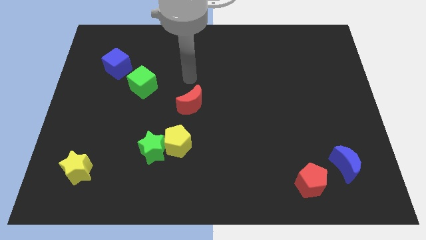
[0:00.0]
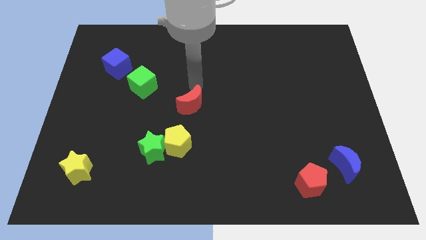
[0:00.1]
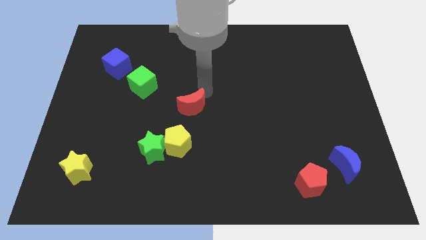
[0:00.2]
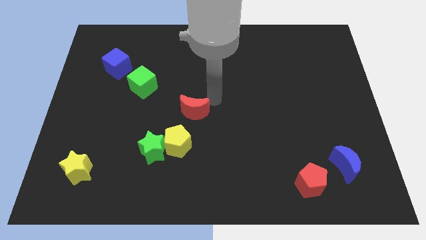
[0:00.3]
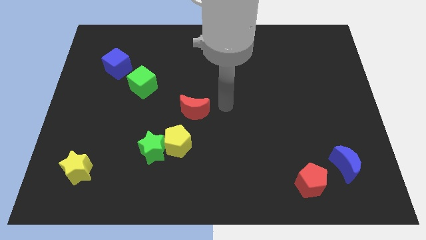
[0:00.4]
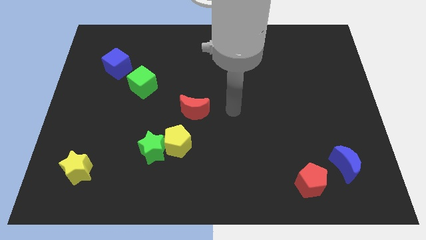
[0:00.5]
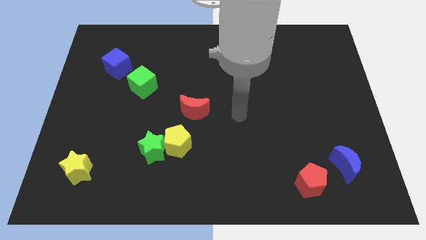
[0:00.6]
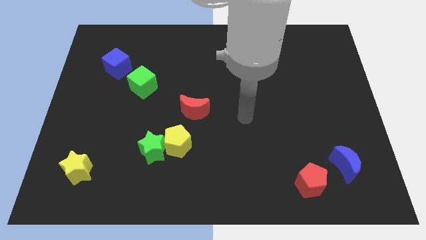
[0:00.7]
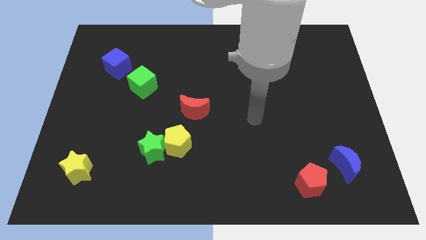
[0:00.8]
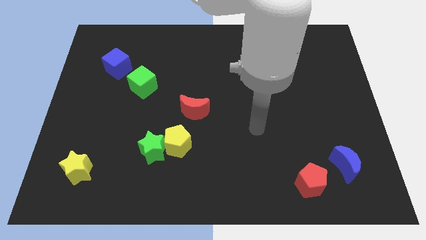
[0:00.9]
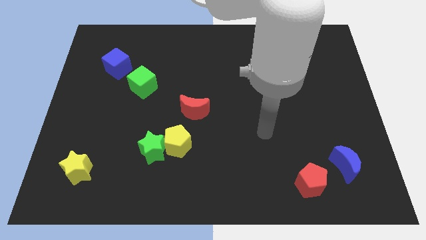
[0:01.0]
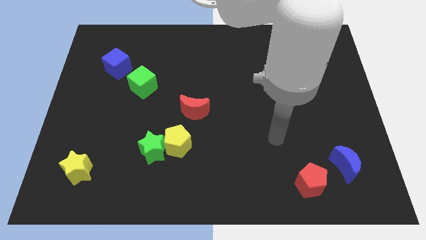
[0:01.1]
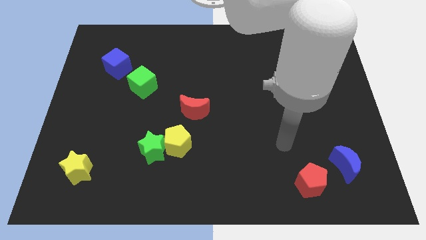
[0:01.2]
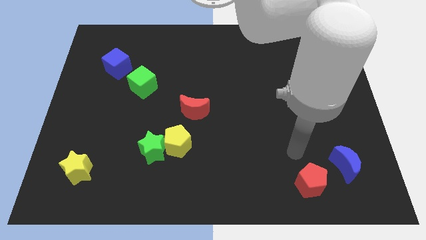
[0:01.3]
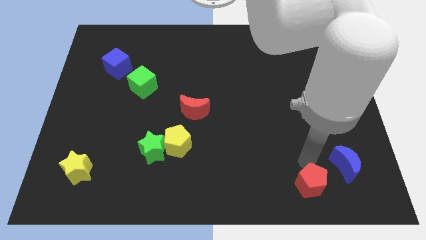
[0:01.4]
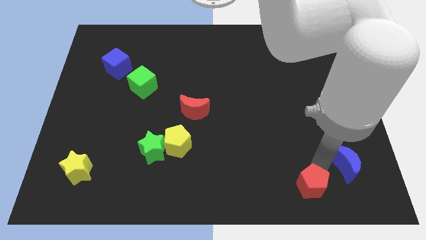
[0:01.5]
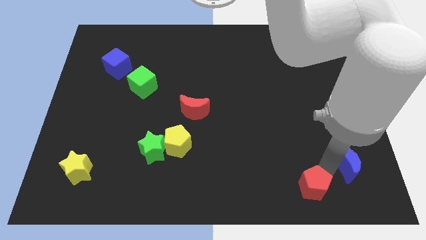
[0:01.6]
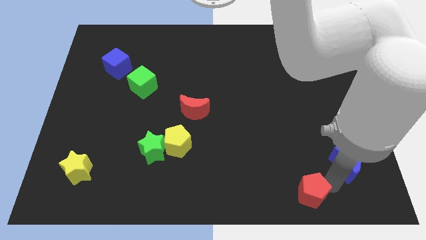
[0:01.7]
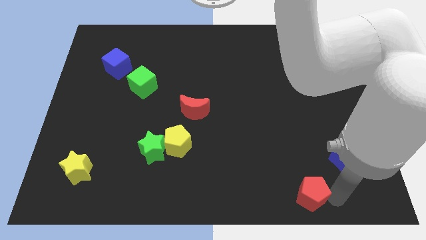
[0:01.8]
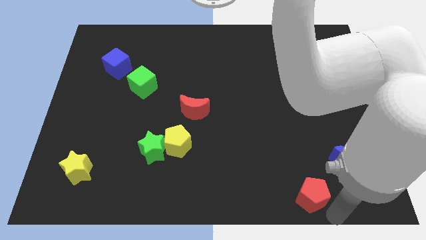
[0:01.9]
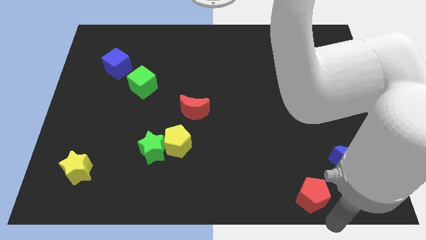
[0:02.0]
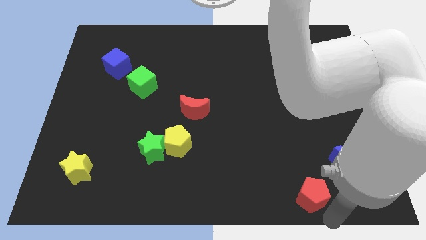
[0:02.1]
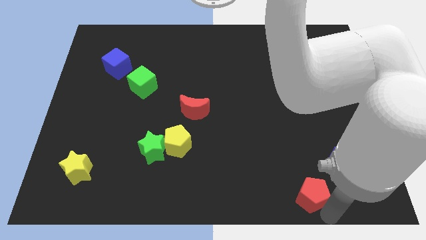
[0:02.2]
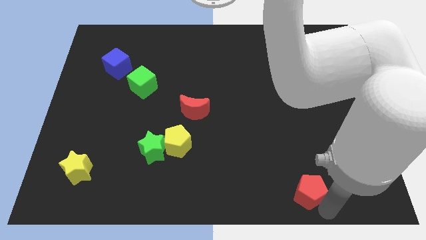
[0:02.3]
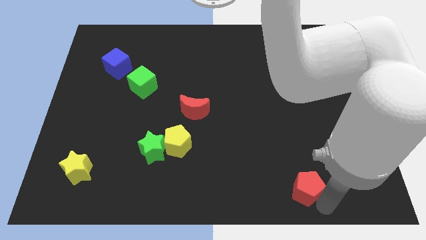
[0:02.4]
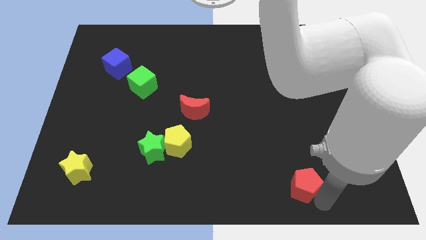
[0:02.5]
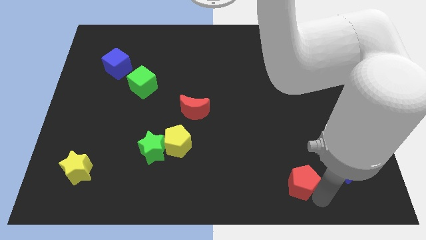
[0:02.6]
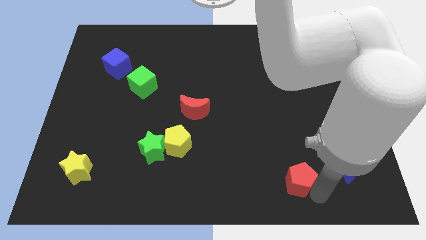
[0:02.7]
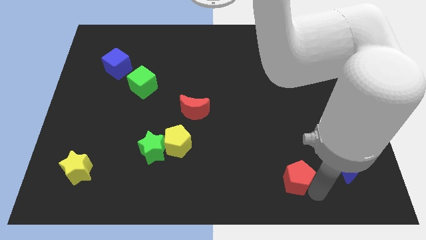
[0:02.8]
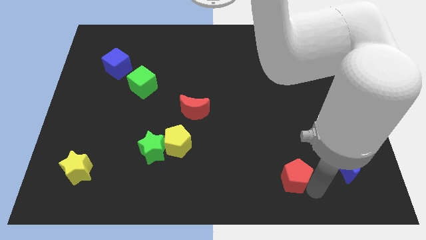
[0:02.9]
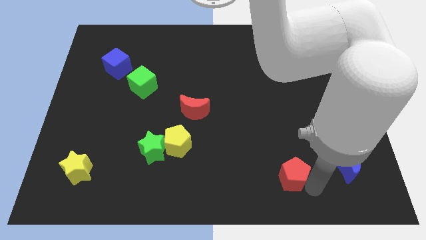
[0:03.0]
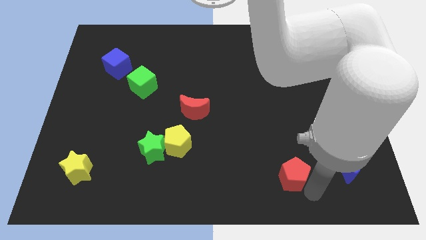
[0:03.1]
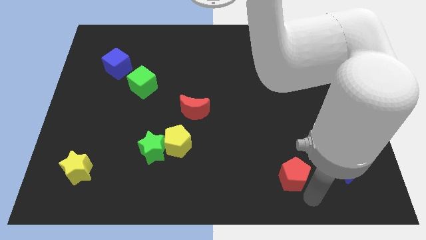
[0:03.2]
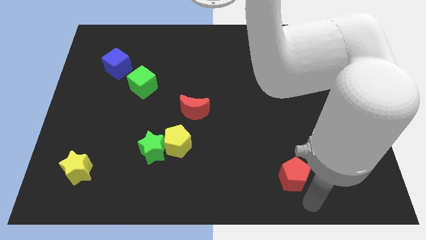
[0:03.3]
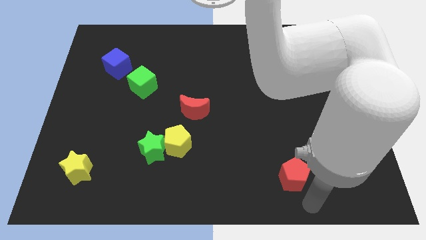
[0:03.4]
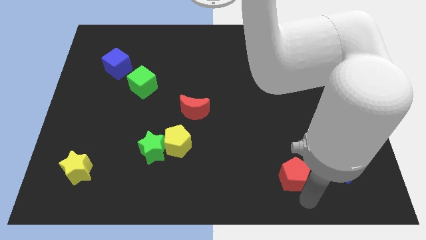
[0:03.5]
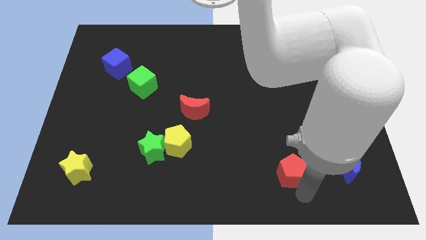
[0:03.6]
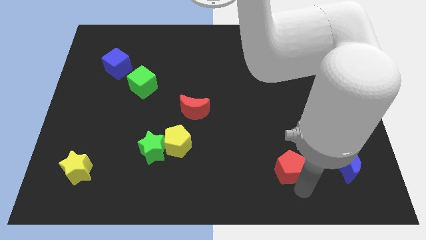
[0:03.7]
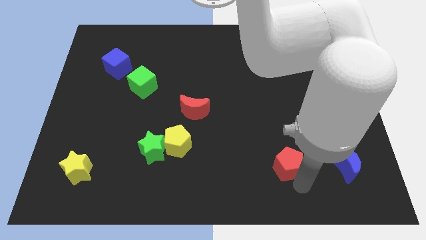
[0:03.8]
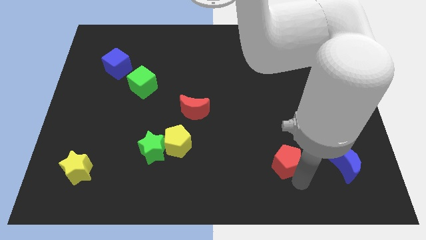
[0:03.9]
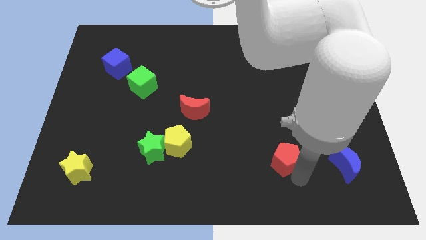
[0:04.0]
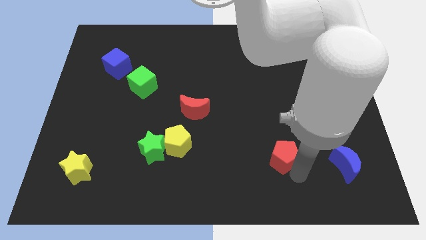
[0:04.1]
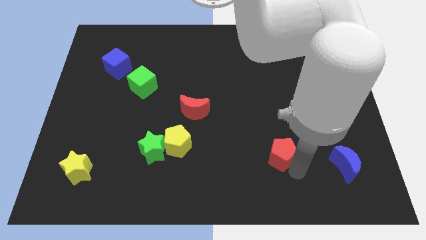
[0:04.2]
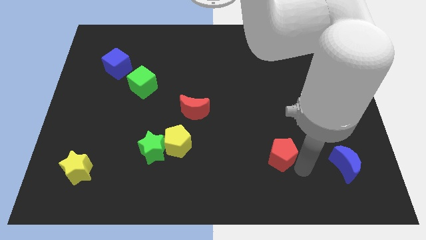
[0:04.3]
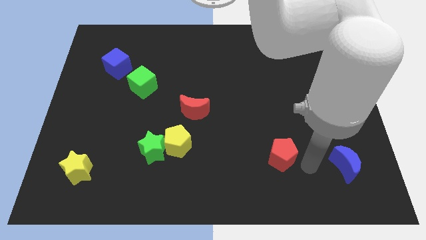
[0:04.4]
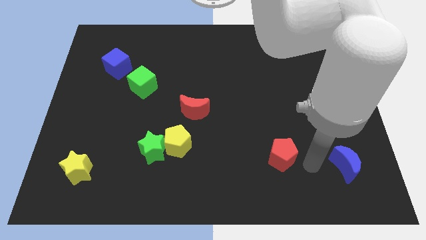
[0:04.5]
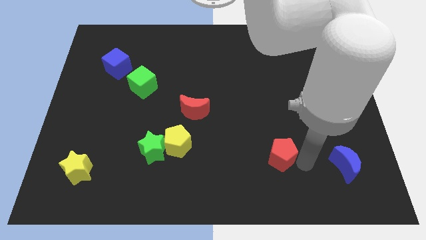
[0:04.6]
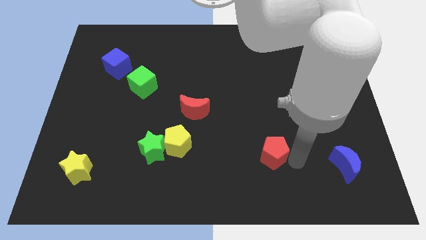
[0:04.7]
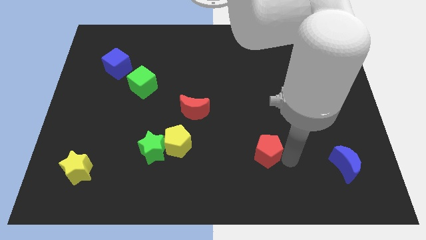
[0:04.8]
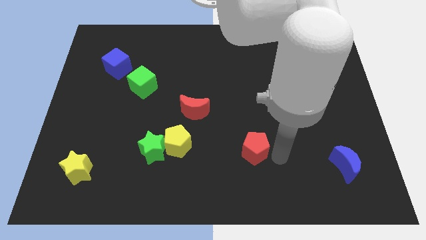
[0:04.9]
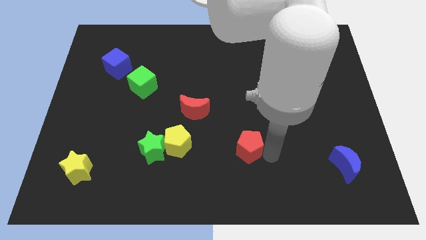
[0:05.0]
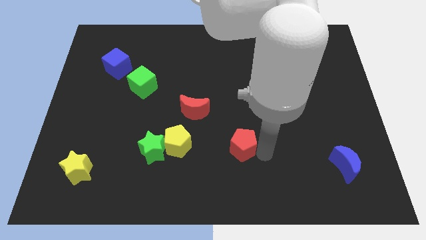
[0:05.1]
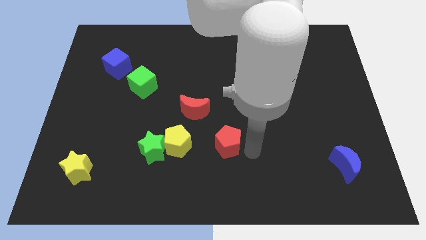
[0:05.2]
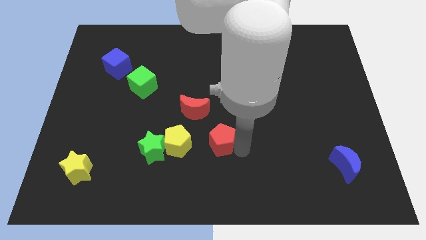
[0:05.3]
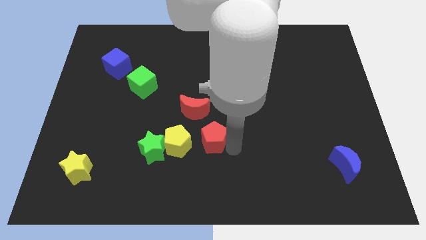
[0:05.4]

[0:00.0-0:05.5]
push the red pentagon diagonally up and to the right of the yellow pentagon
